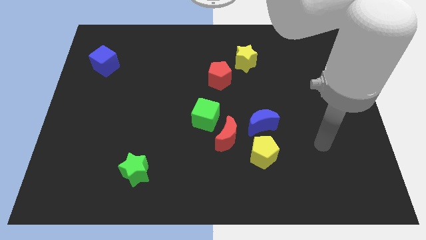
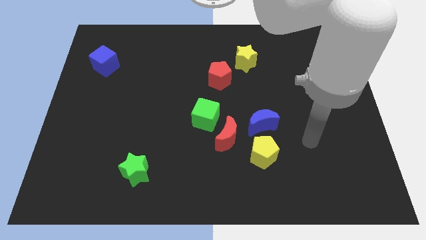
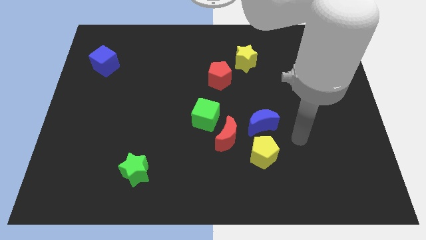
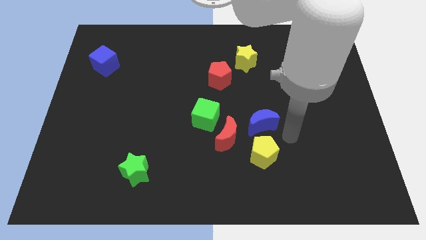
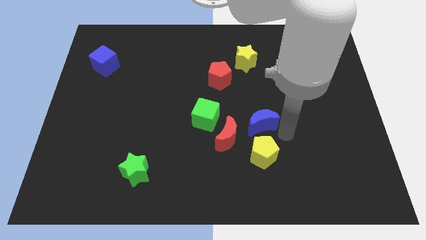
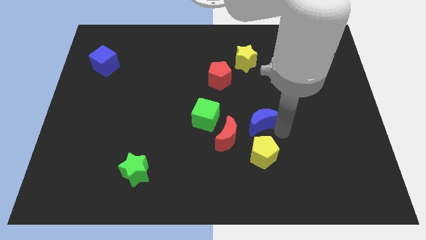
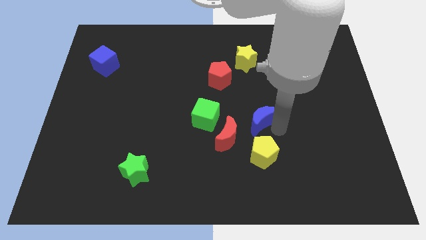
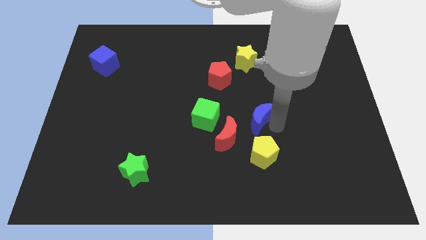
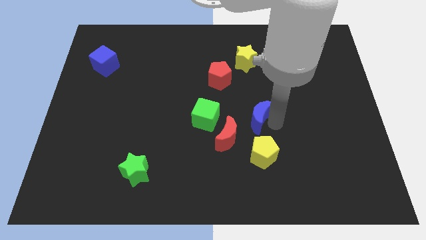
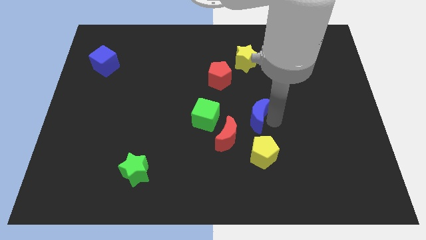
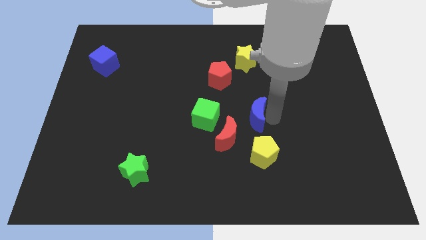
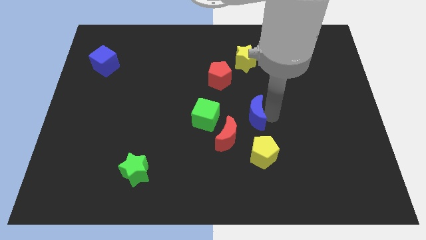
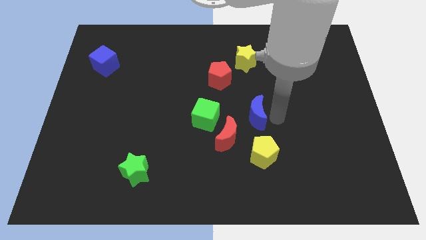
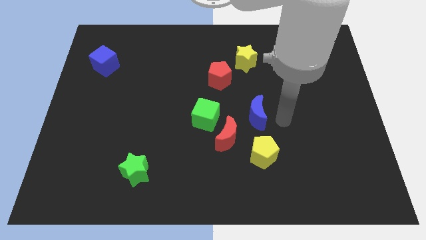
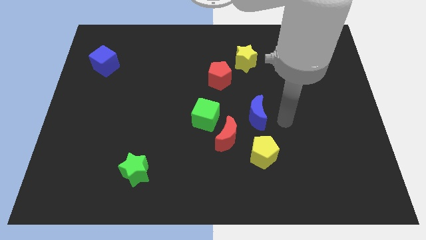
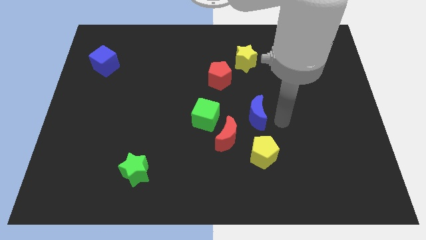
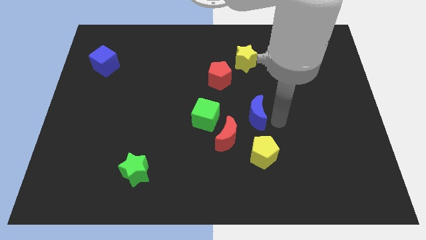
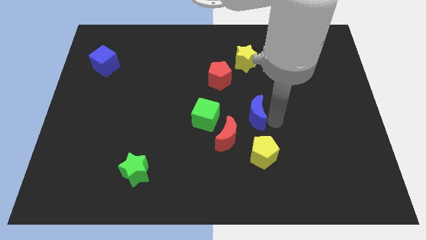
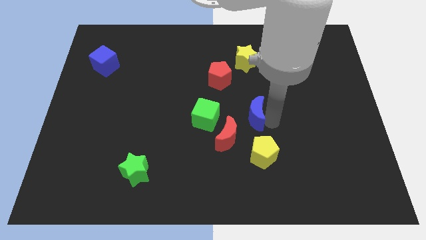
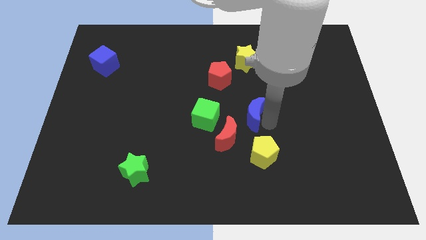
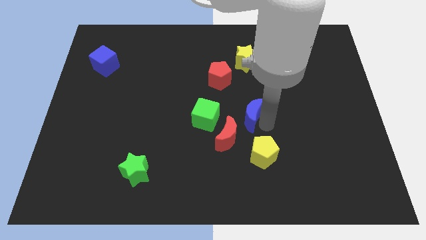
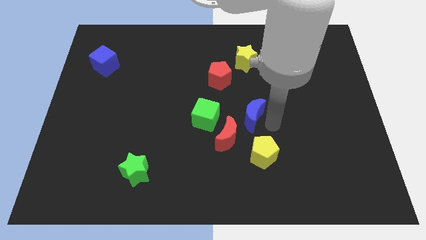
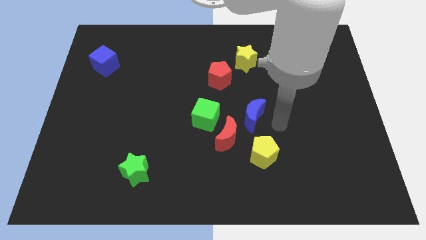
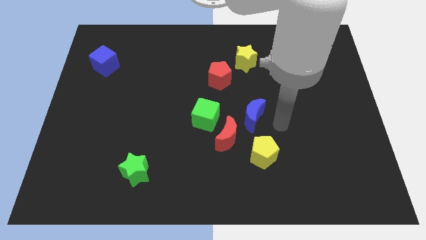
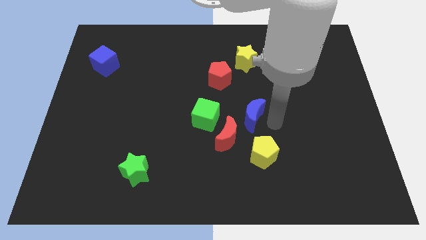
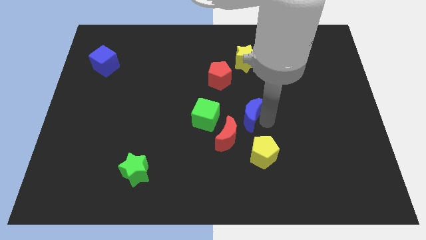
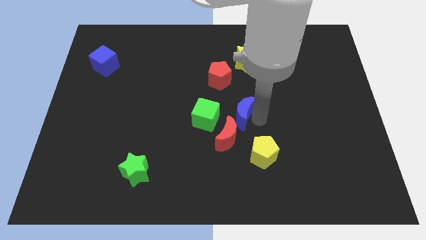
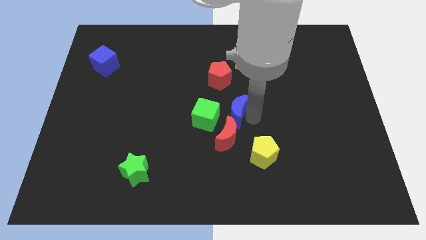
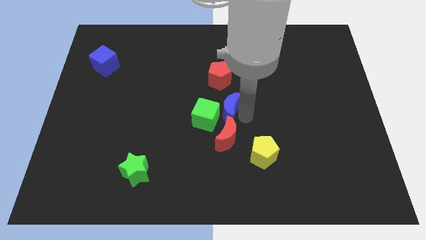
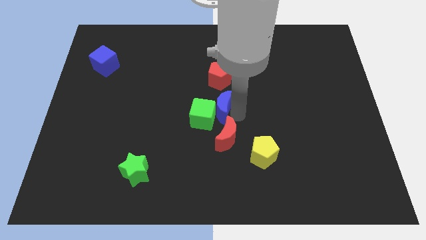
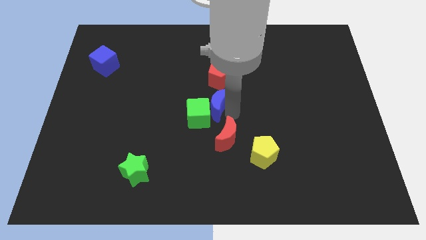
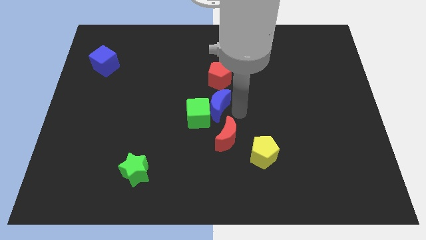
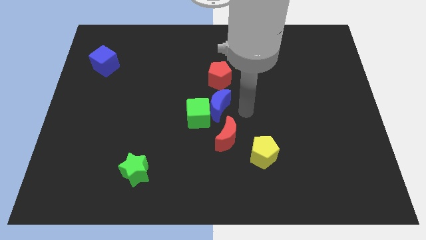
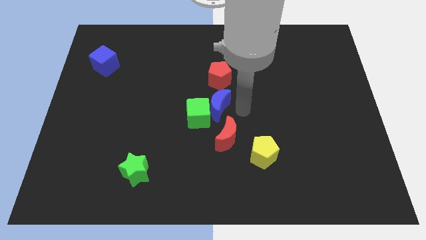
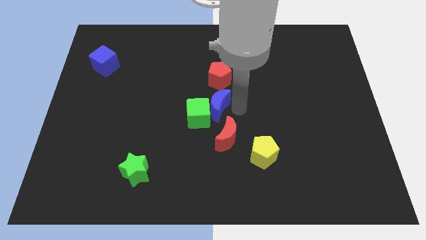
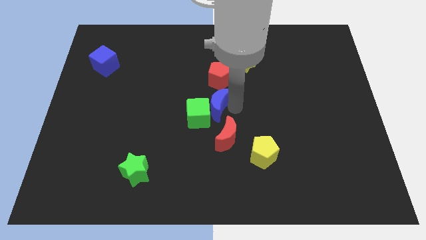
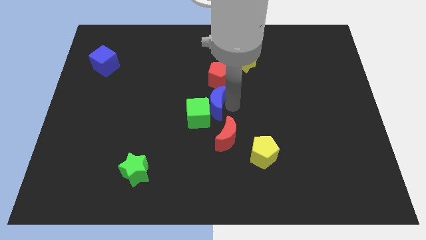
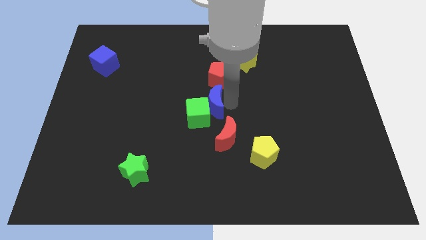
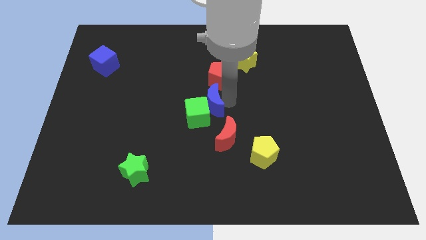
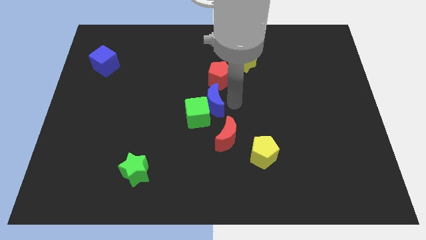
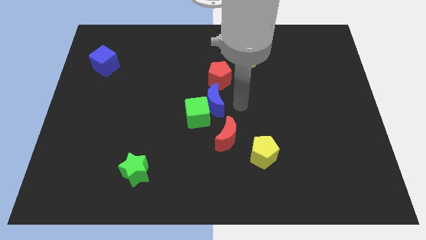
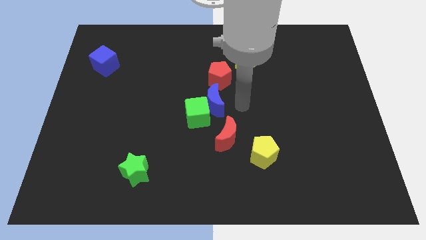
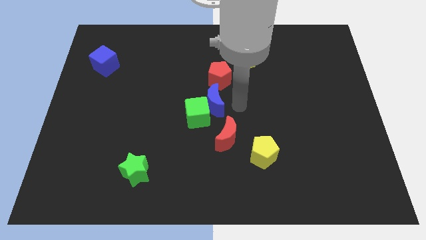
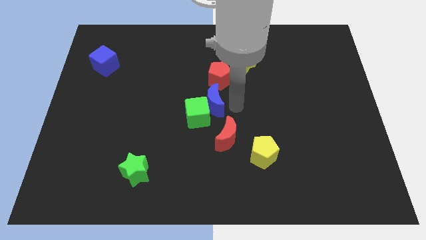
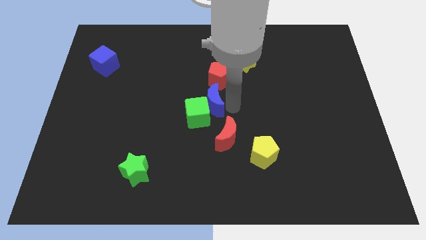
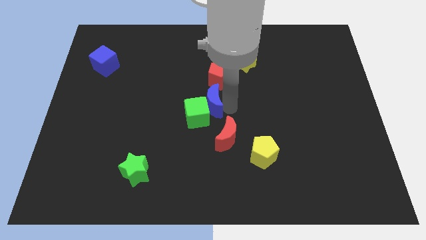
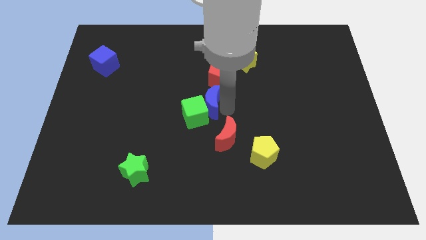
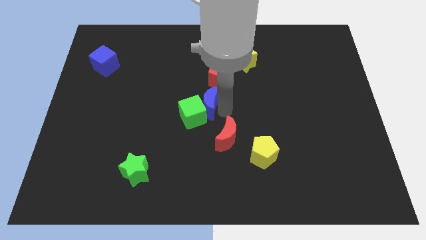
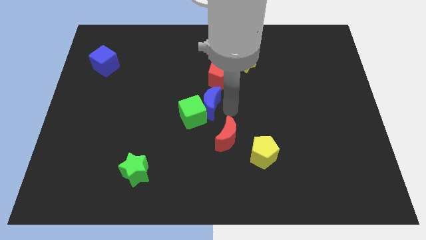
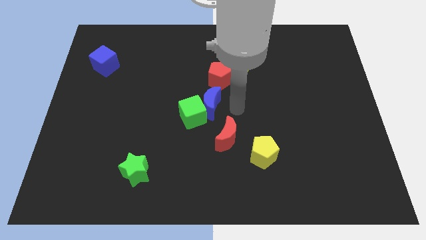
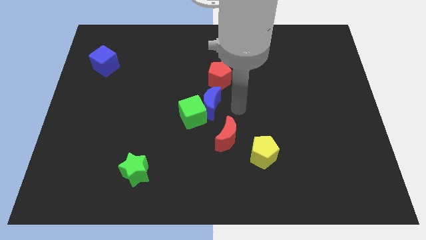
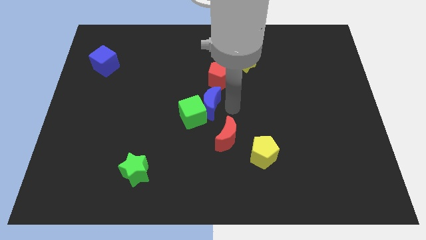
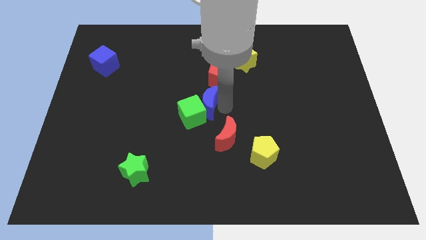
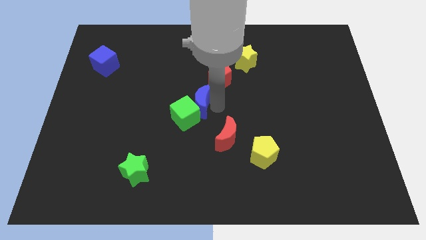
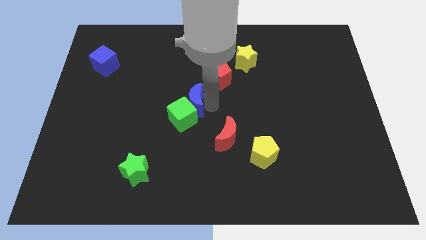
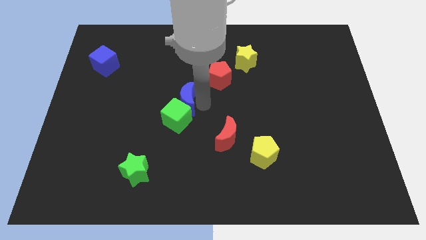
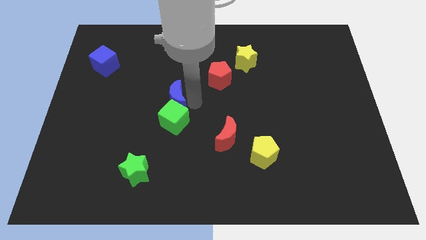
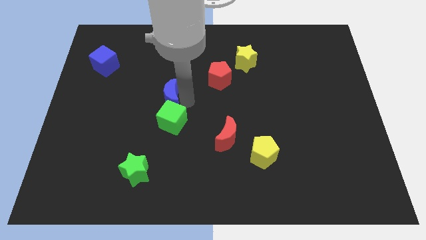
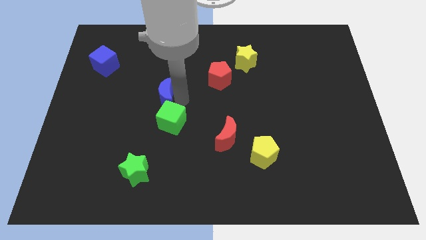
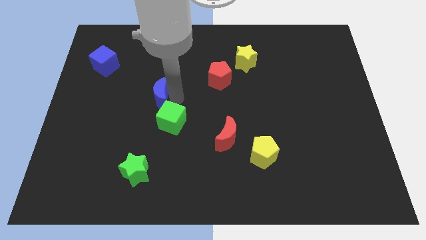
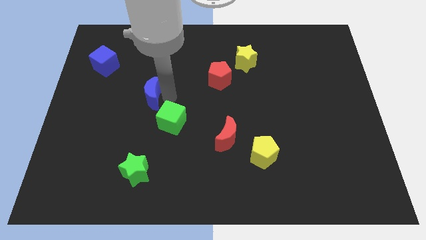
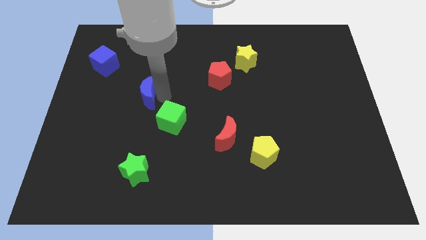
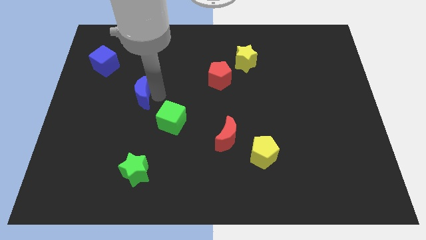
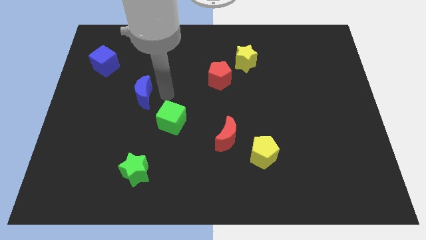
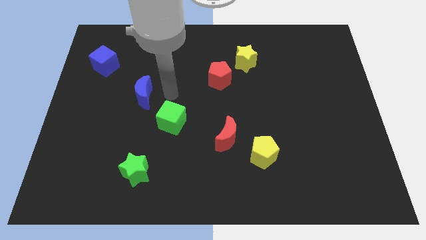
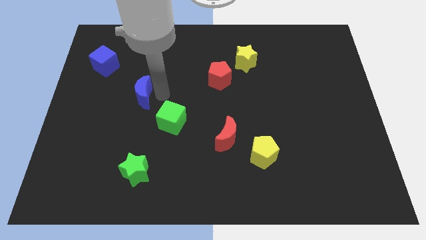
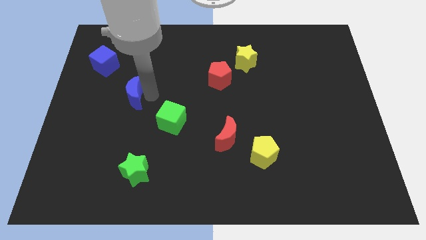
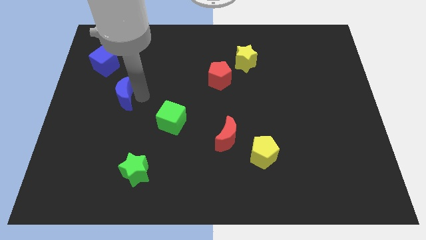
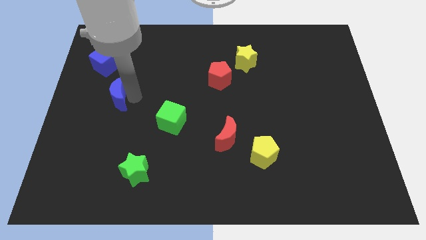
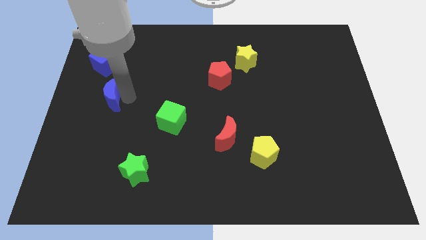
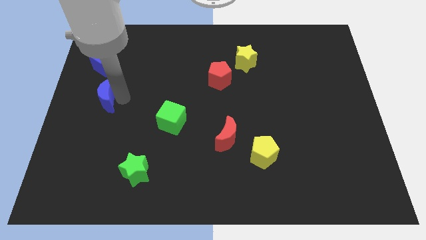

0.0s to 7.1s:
slide the blue moon to the left side

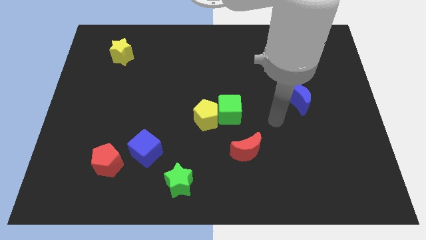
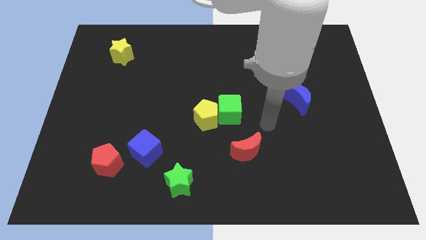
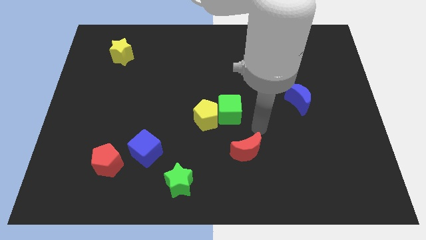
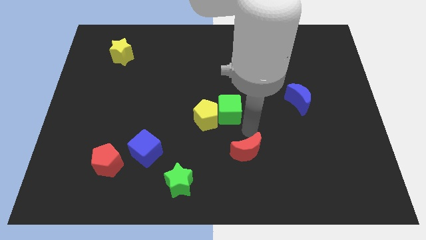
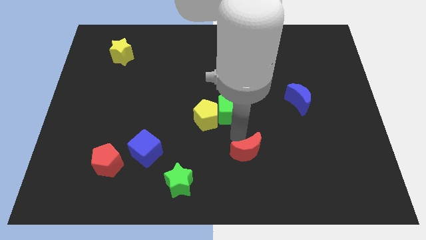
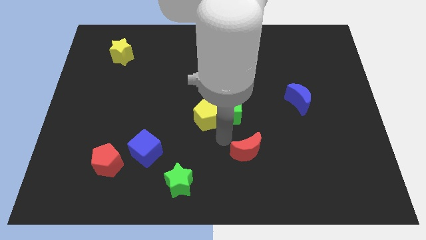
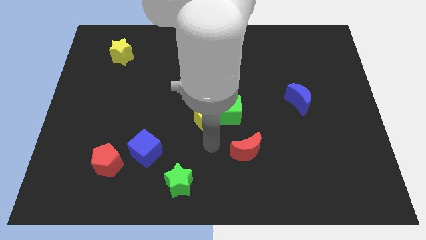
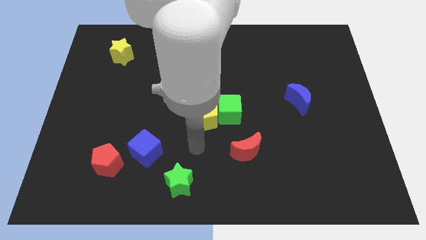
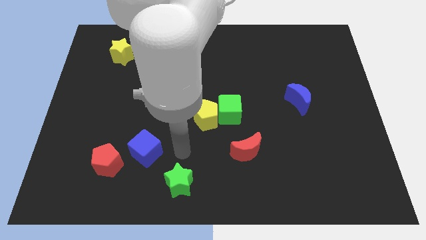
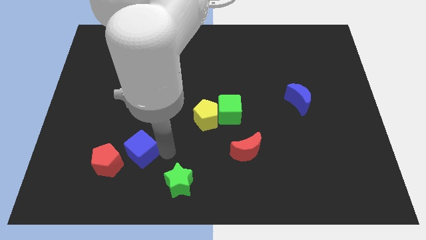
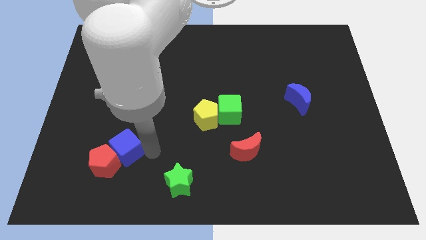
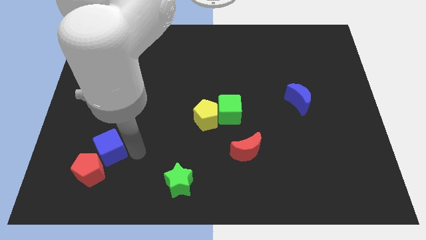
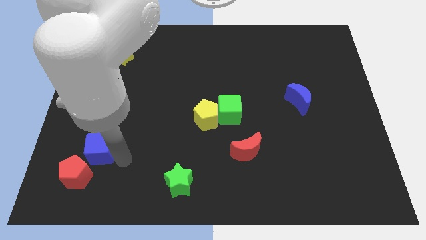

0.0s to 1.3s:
move the red pentagon to the bottom left of the board
